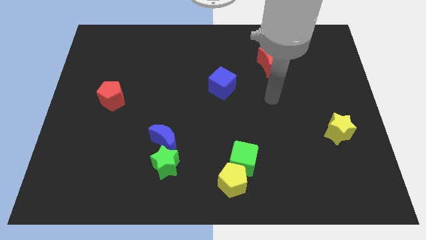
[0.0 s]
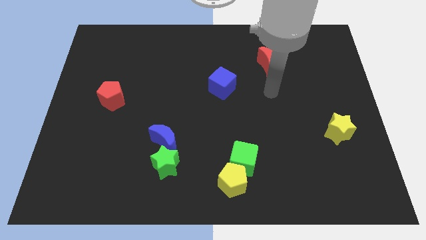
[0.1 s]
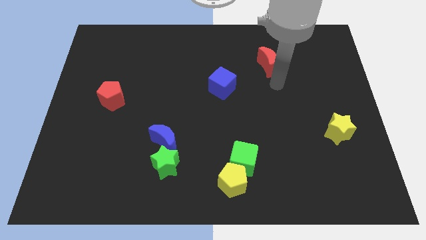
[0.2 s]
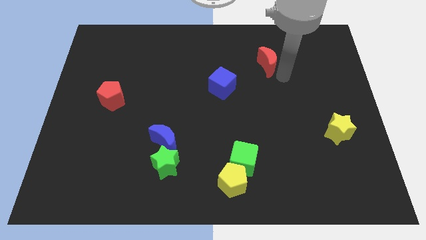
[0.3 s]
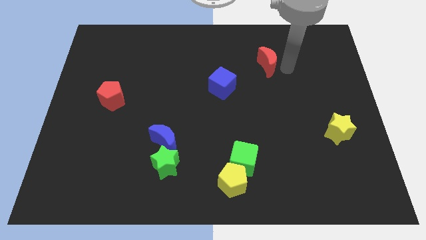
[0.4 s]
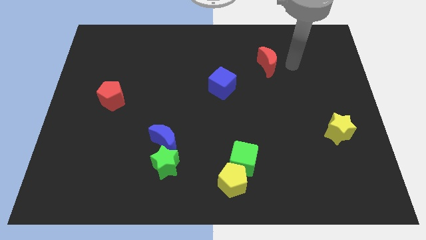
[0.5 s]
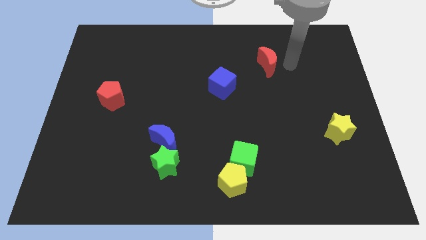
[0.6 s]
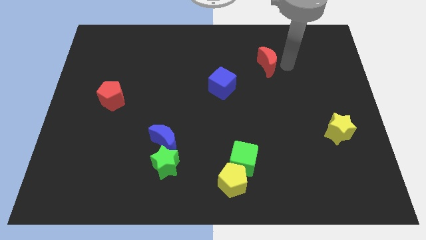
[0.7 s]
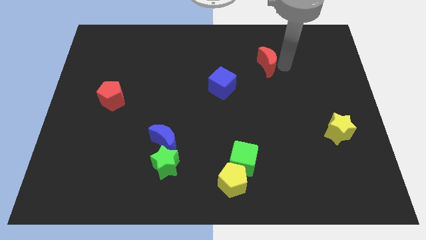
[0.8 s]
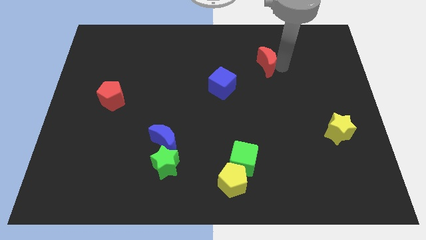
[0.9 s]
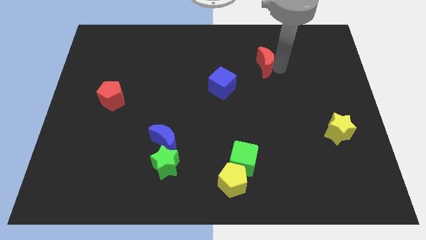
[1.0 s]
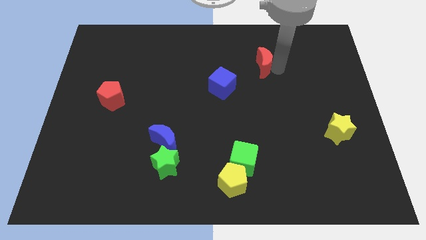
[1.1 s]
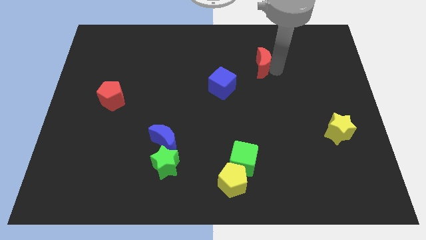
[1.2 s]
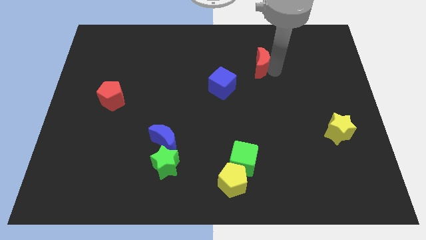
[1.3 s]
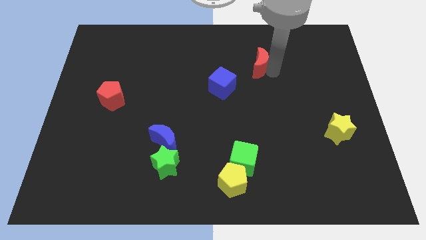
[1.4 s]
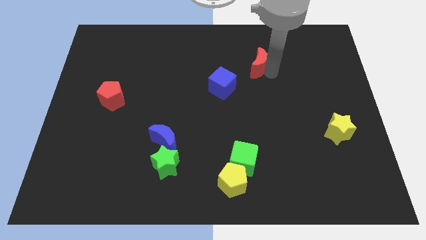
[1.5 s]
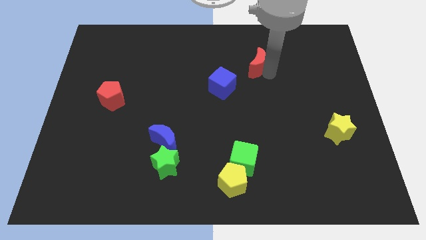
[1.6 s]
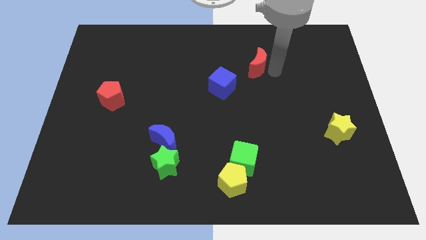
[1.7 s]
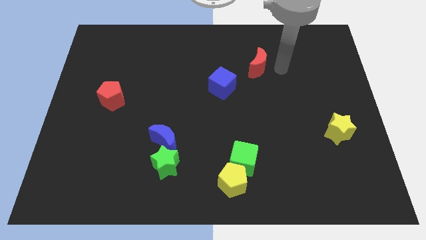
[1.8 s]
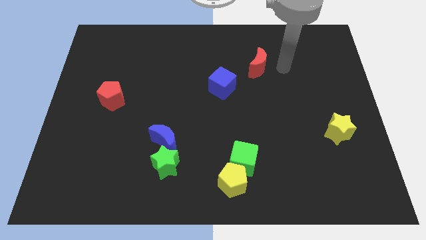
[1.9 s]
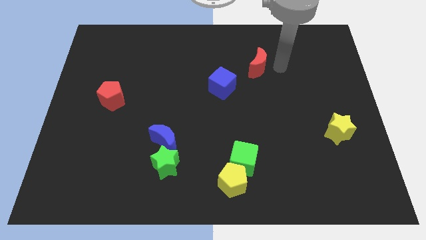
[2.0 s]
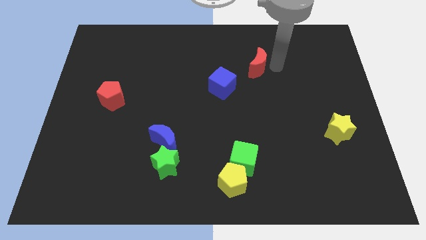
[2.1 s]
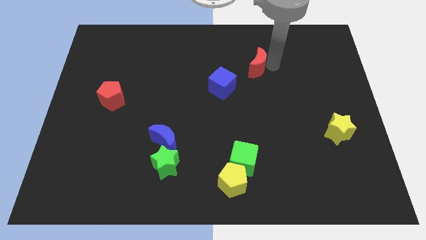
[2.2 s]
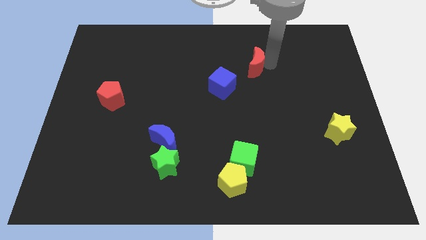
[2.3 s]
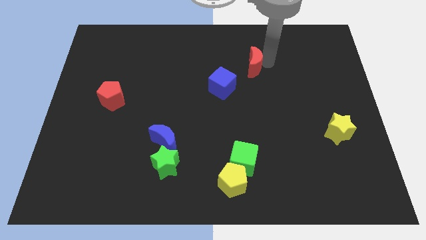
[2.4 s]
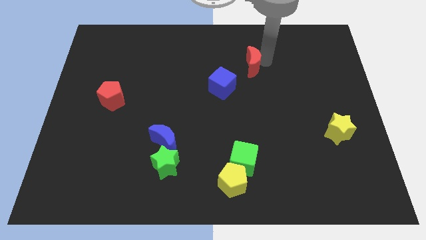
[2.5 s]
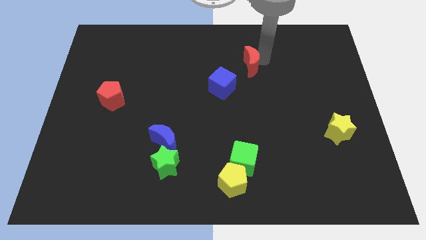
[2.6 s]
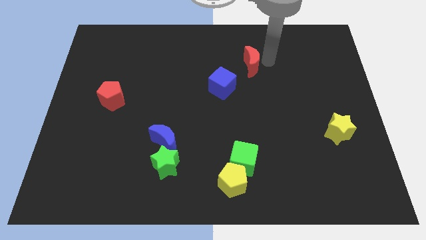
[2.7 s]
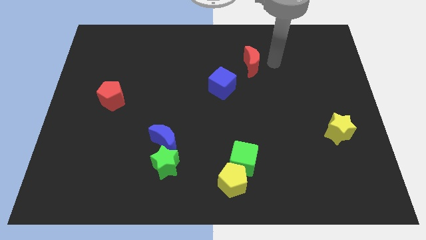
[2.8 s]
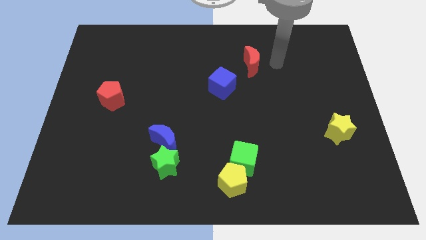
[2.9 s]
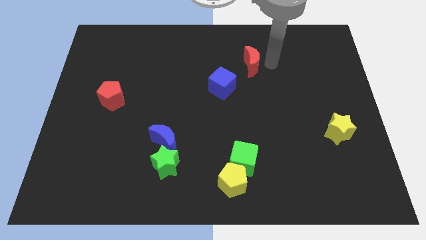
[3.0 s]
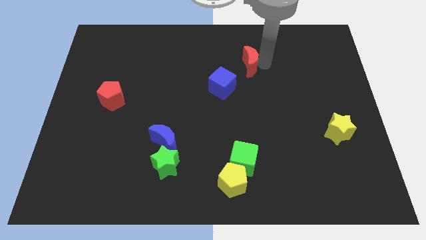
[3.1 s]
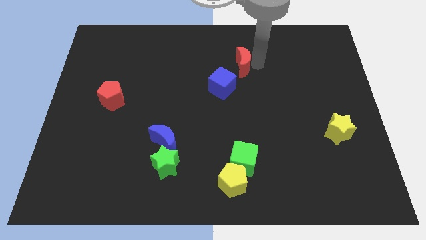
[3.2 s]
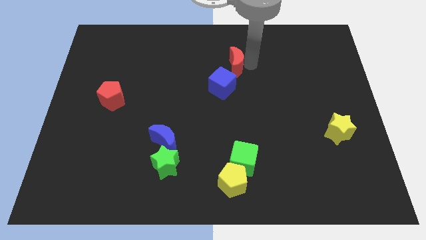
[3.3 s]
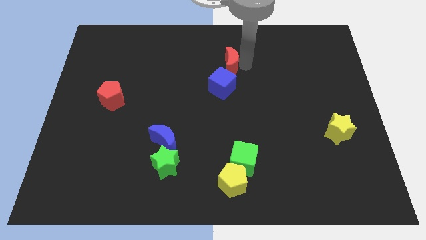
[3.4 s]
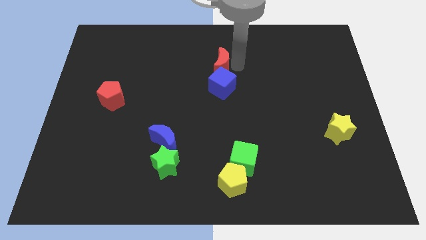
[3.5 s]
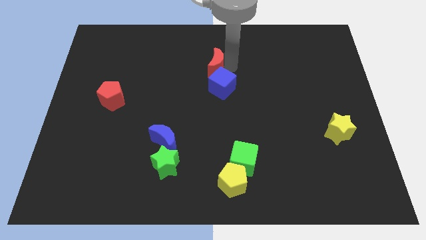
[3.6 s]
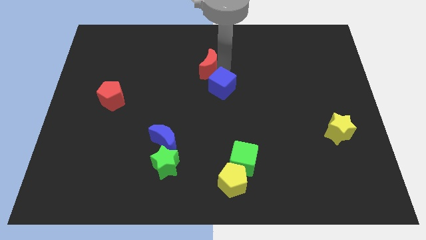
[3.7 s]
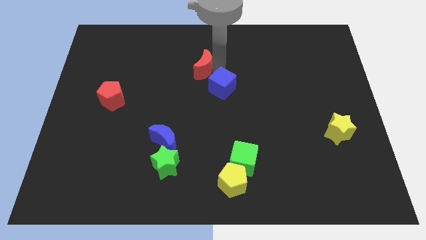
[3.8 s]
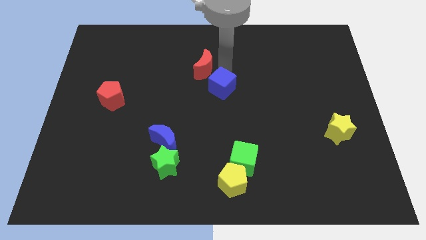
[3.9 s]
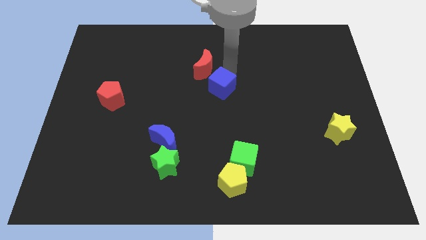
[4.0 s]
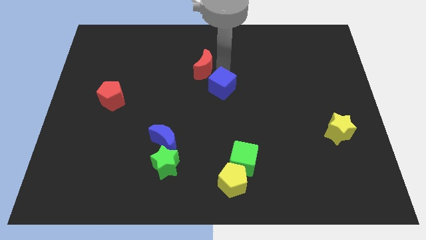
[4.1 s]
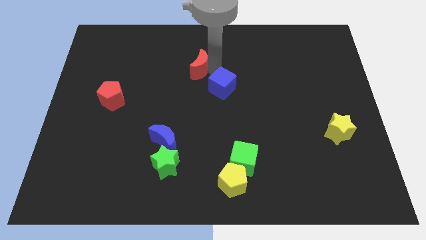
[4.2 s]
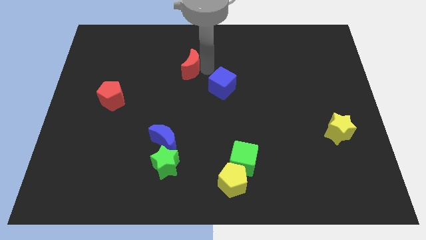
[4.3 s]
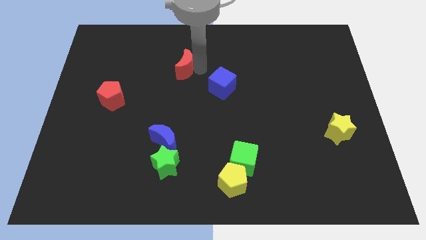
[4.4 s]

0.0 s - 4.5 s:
push the red moon to the left

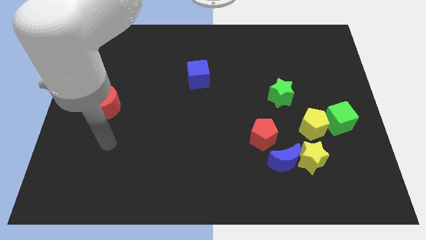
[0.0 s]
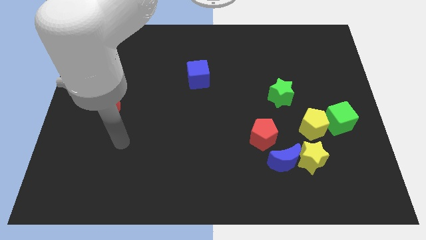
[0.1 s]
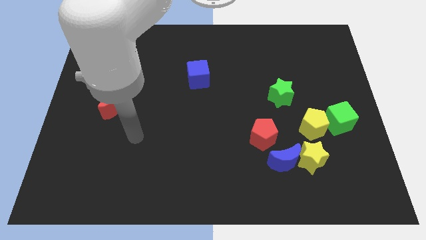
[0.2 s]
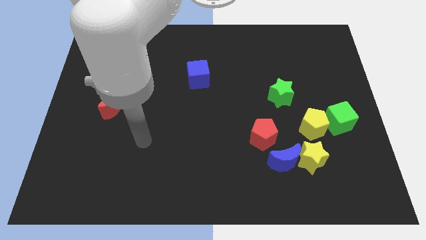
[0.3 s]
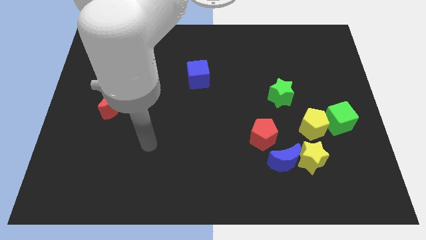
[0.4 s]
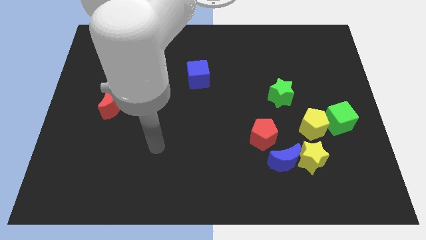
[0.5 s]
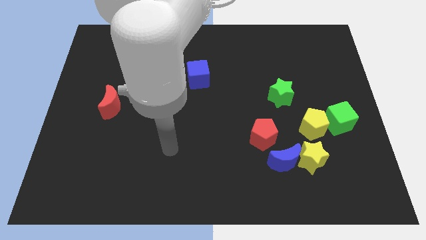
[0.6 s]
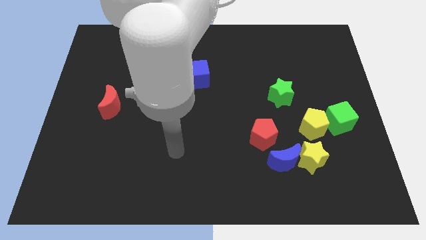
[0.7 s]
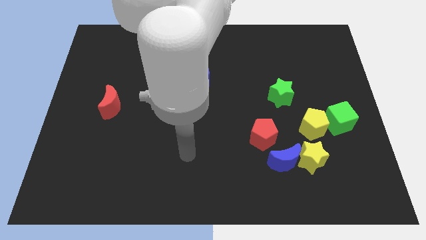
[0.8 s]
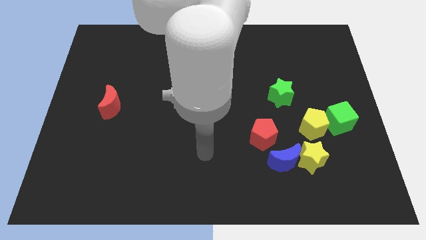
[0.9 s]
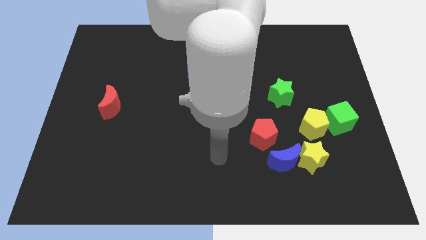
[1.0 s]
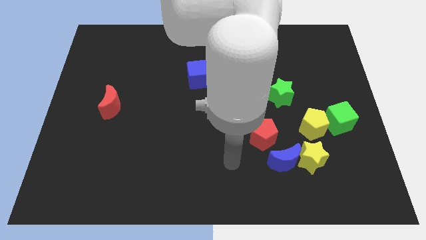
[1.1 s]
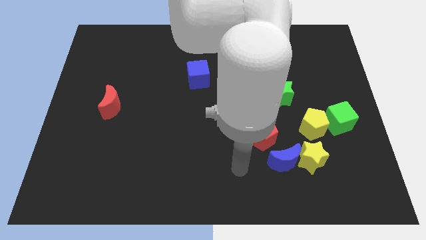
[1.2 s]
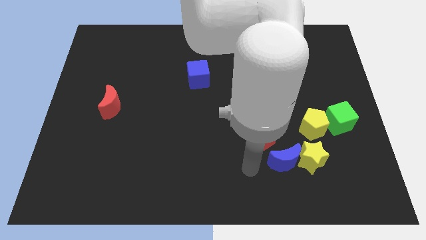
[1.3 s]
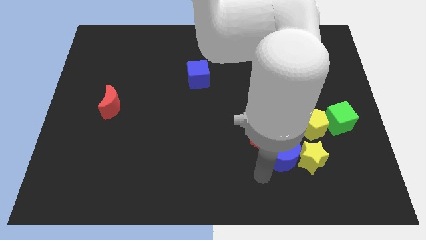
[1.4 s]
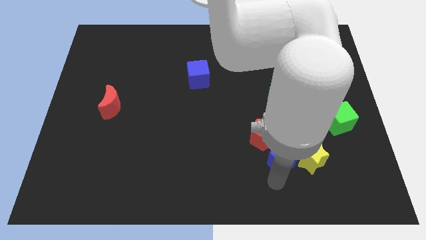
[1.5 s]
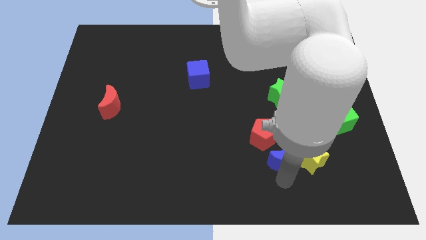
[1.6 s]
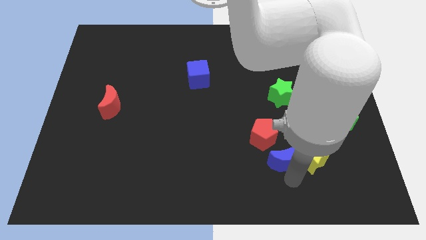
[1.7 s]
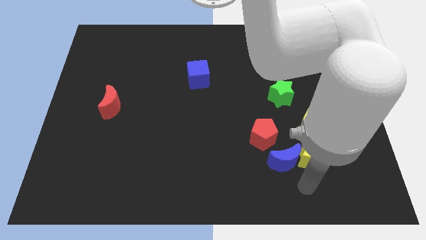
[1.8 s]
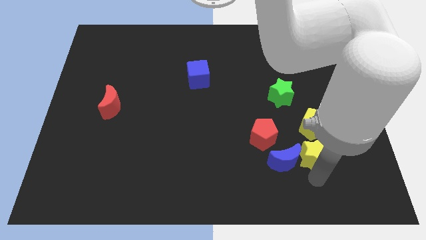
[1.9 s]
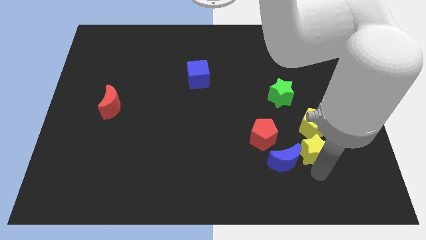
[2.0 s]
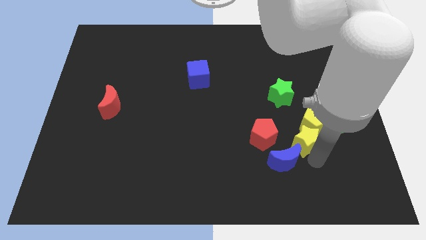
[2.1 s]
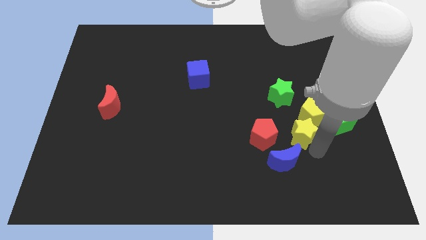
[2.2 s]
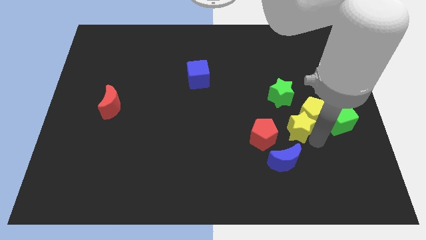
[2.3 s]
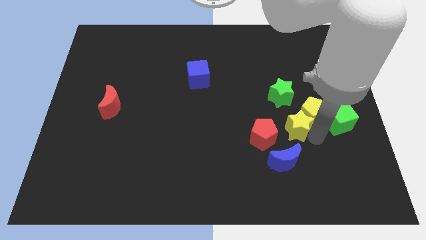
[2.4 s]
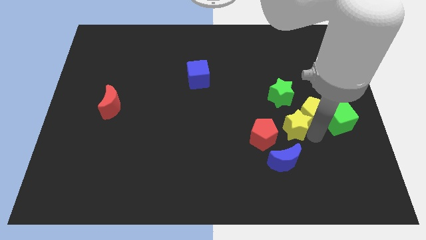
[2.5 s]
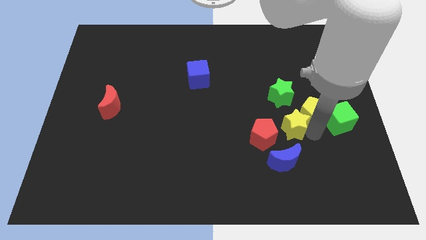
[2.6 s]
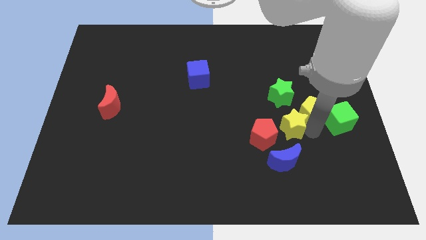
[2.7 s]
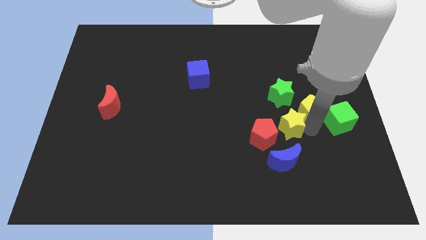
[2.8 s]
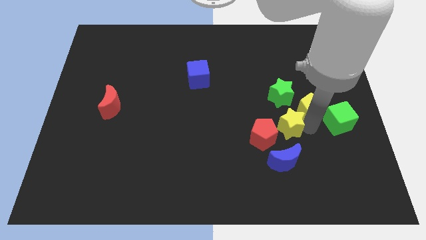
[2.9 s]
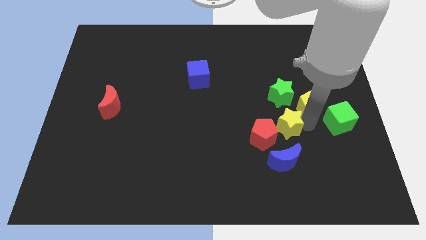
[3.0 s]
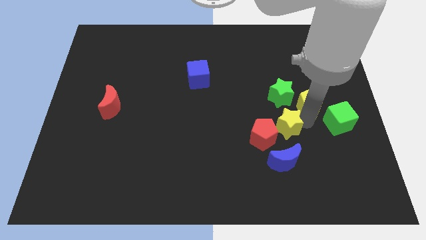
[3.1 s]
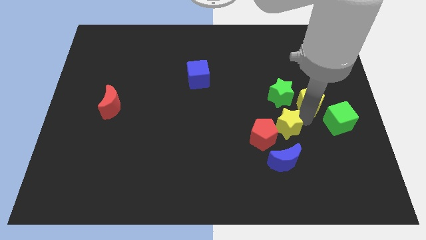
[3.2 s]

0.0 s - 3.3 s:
slightly slide the yellow pentagon upwards
